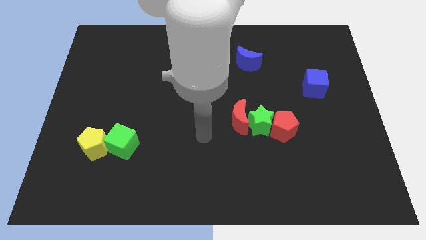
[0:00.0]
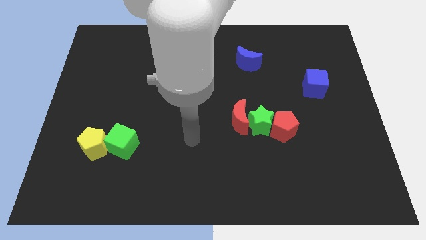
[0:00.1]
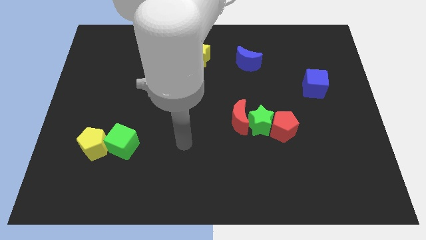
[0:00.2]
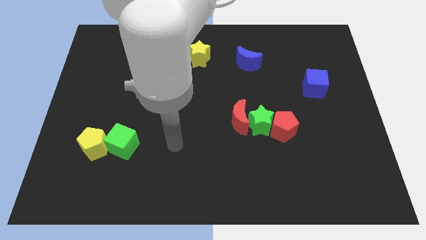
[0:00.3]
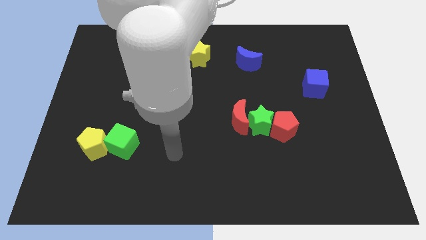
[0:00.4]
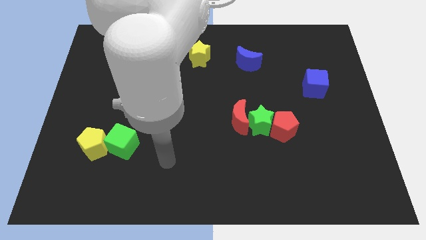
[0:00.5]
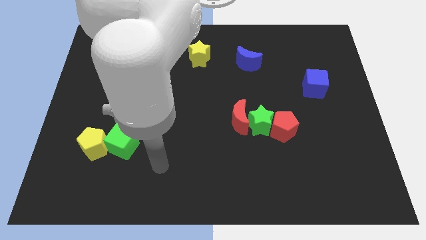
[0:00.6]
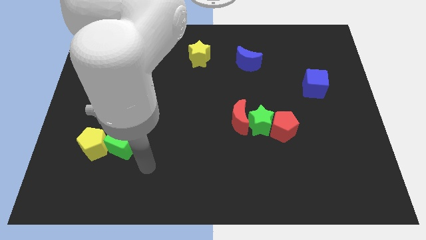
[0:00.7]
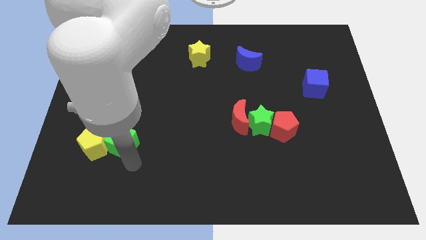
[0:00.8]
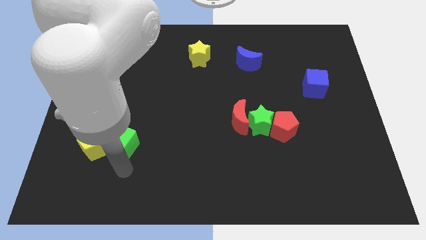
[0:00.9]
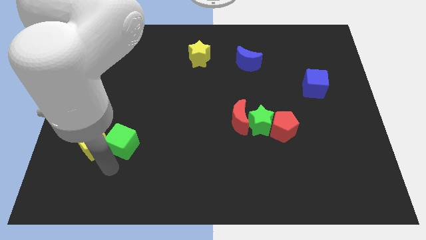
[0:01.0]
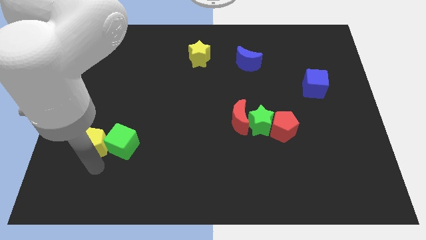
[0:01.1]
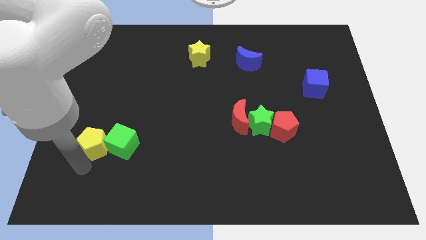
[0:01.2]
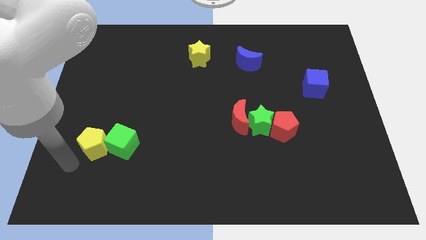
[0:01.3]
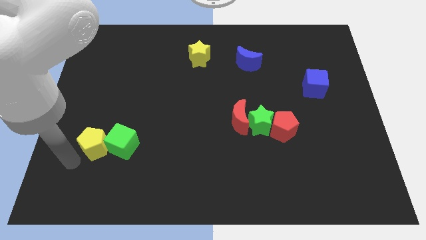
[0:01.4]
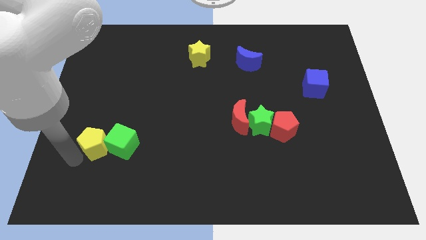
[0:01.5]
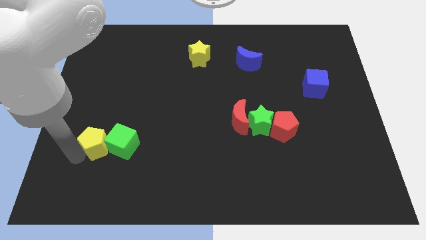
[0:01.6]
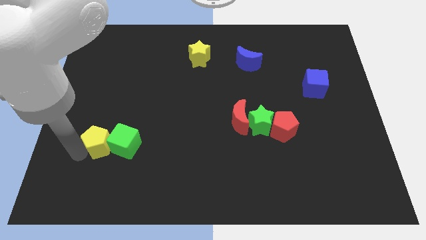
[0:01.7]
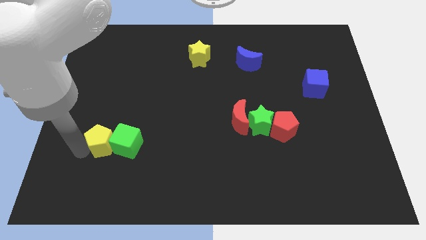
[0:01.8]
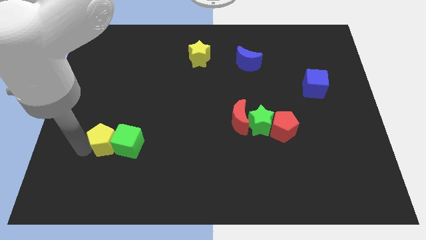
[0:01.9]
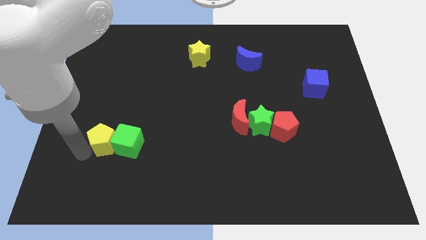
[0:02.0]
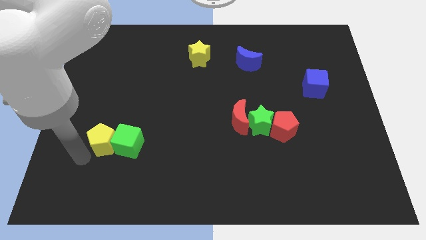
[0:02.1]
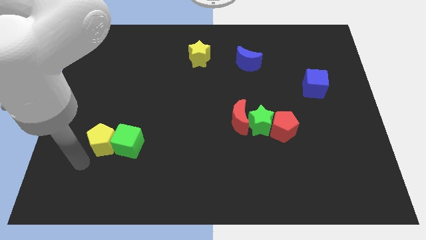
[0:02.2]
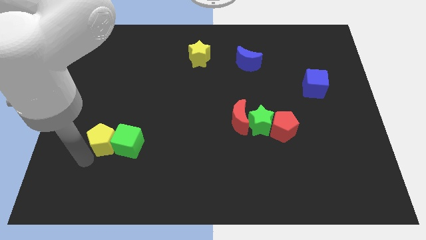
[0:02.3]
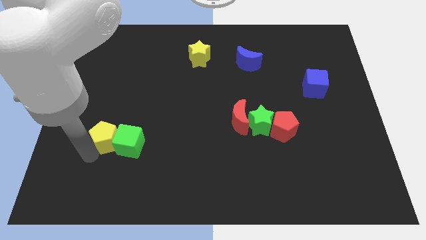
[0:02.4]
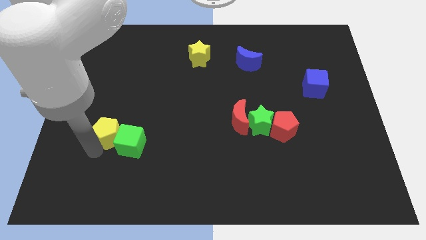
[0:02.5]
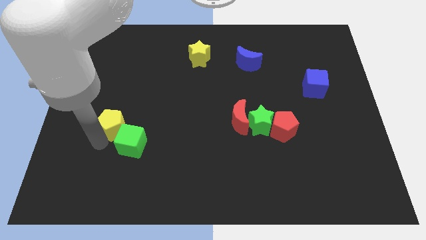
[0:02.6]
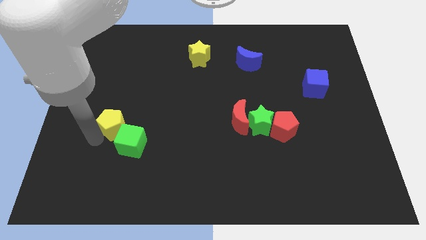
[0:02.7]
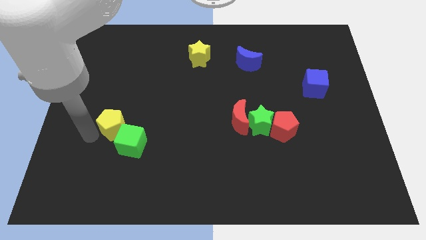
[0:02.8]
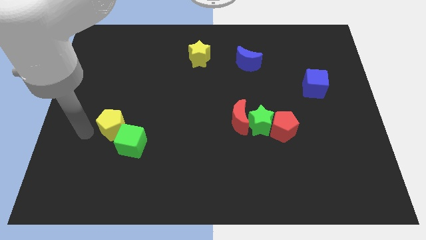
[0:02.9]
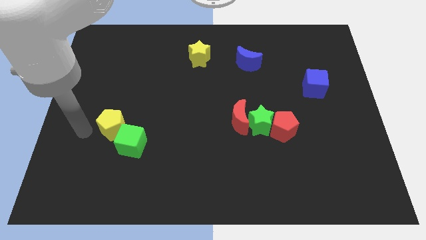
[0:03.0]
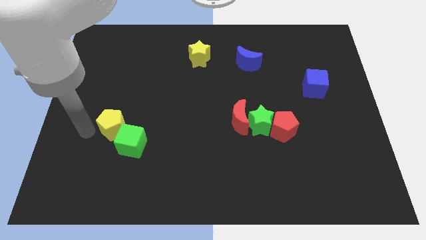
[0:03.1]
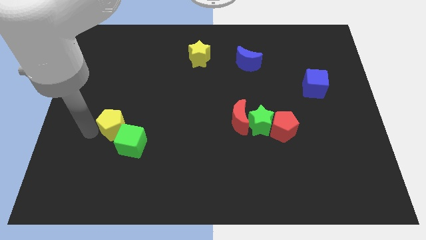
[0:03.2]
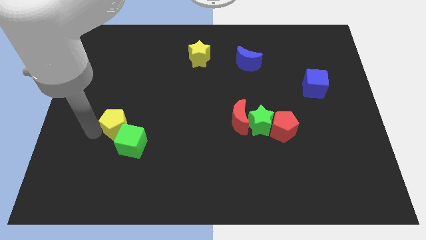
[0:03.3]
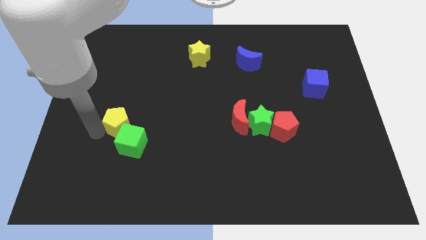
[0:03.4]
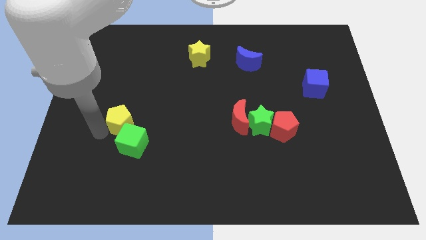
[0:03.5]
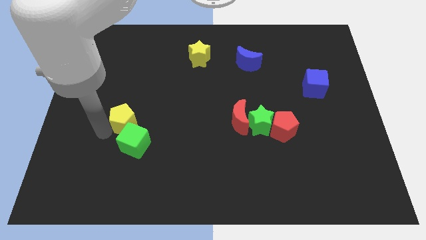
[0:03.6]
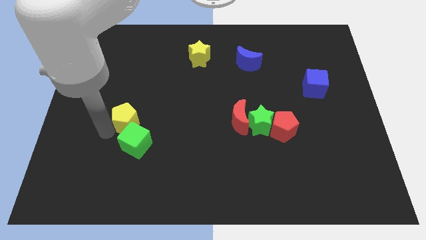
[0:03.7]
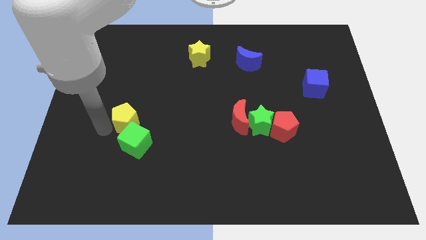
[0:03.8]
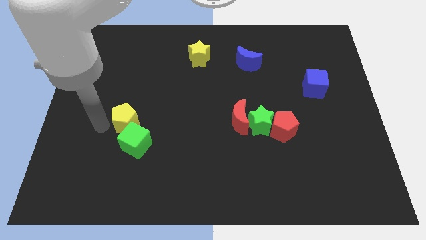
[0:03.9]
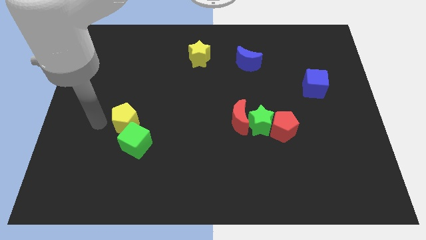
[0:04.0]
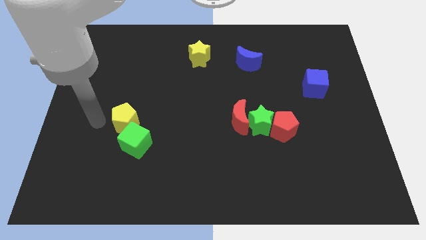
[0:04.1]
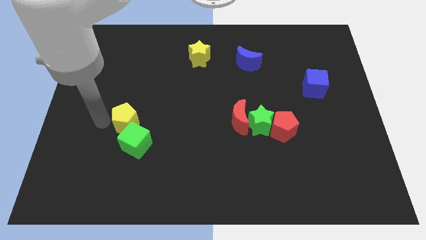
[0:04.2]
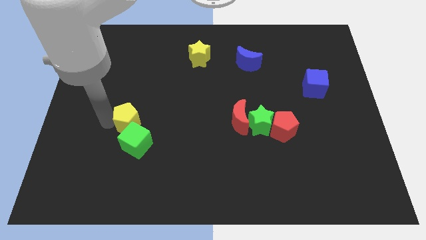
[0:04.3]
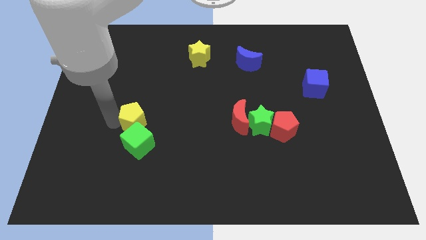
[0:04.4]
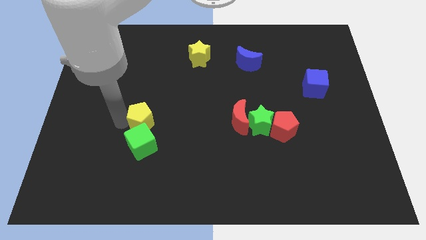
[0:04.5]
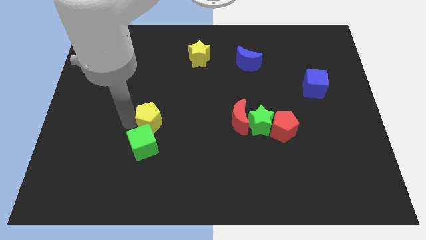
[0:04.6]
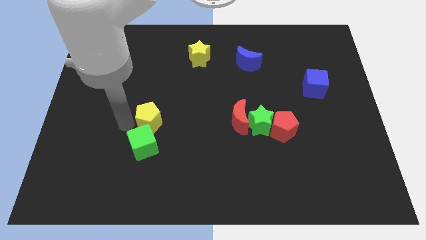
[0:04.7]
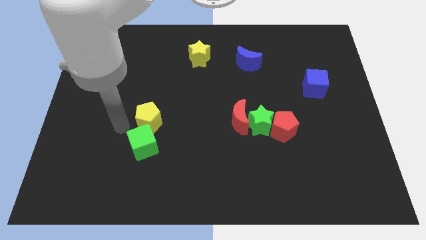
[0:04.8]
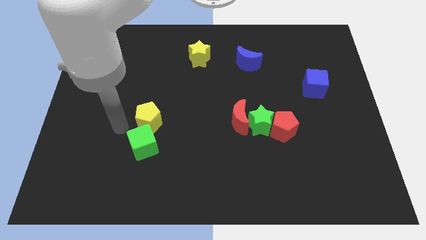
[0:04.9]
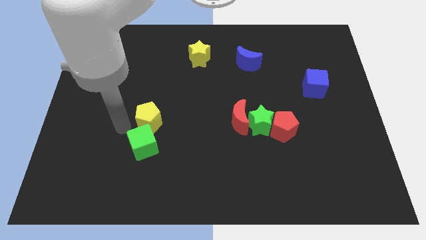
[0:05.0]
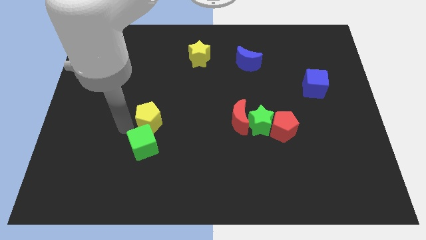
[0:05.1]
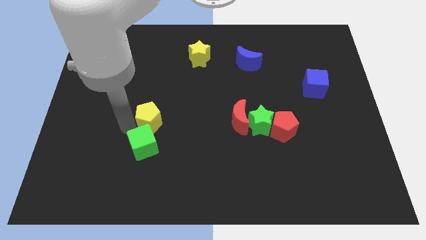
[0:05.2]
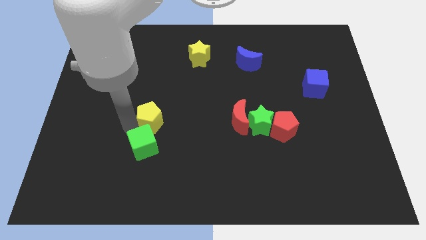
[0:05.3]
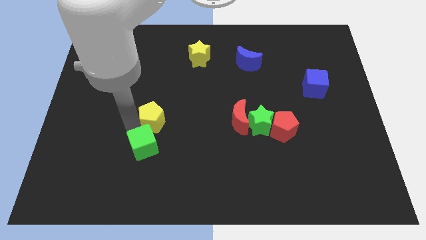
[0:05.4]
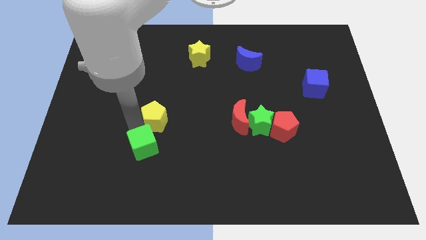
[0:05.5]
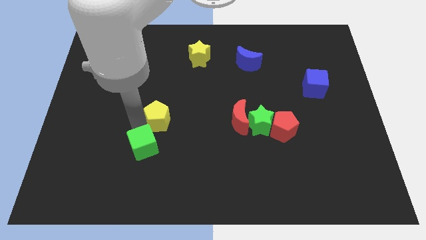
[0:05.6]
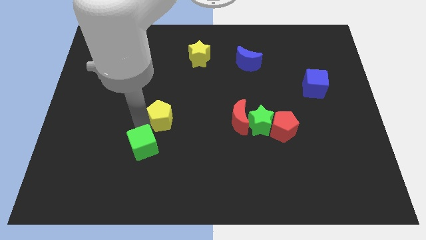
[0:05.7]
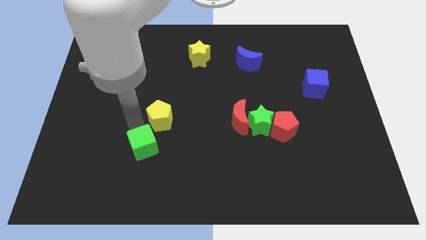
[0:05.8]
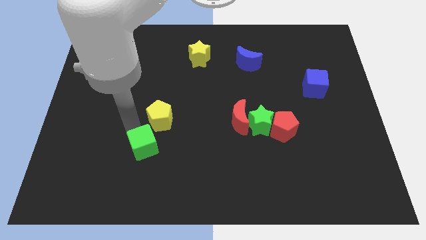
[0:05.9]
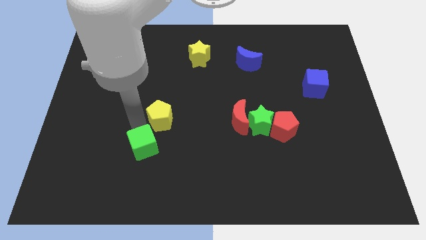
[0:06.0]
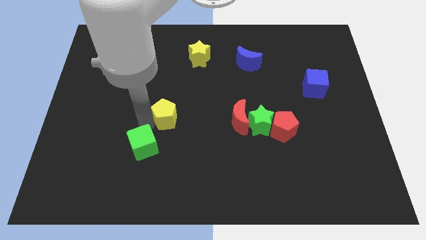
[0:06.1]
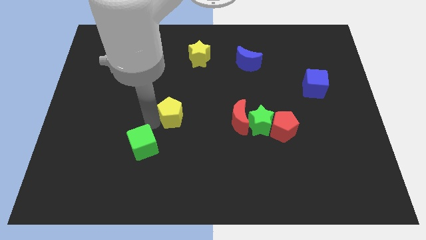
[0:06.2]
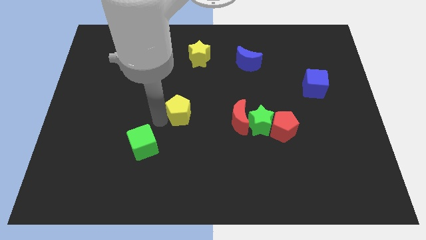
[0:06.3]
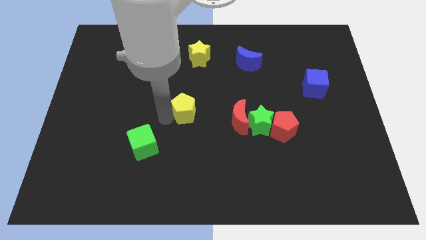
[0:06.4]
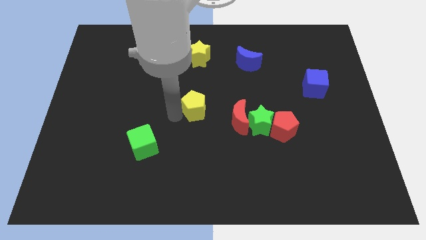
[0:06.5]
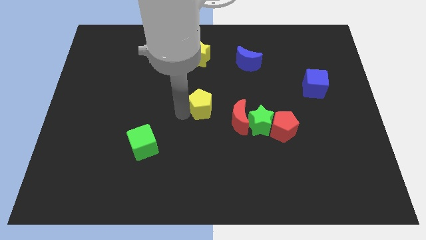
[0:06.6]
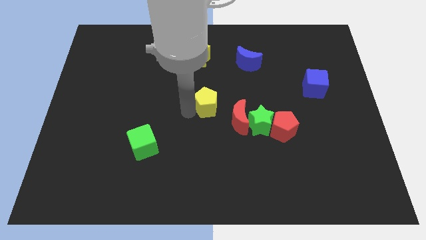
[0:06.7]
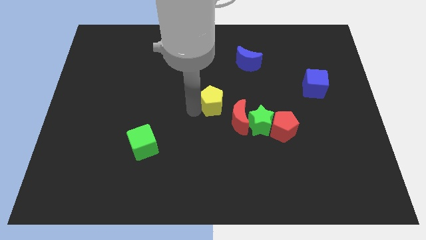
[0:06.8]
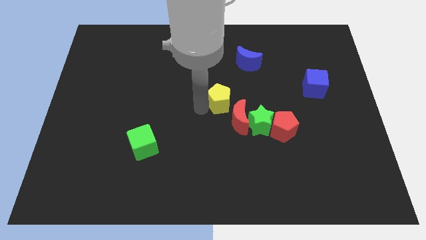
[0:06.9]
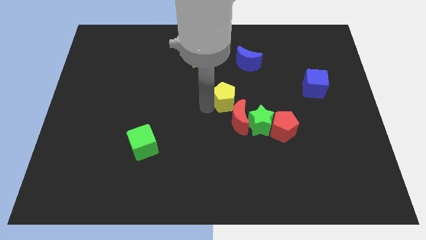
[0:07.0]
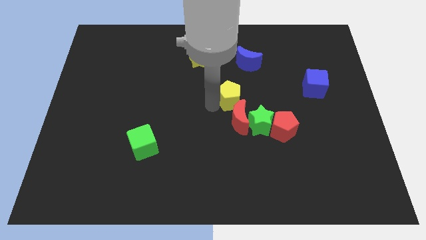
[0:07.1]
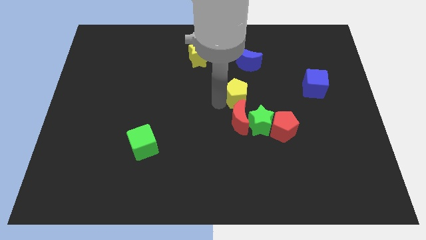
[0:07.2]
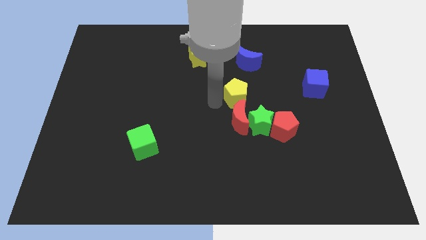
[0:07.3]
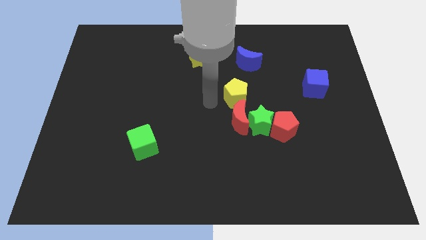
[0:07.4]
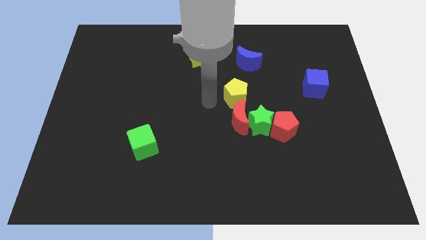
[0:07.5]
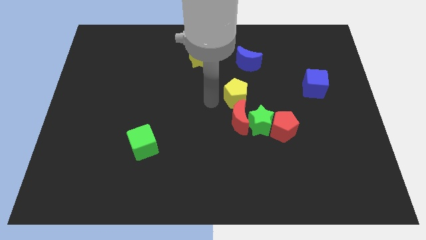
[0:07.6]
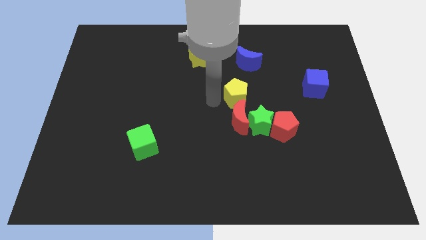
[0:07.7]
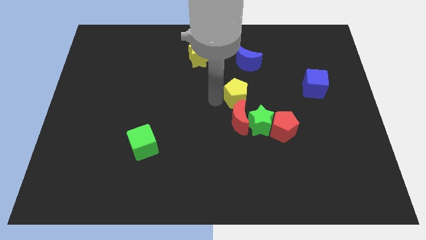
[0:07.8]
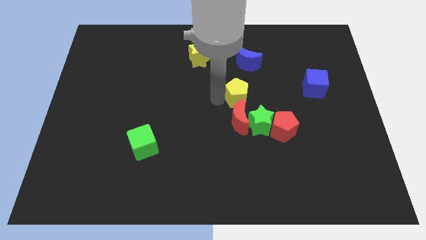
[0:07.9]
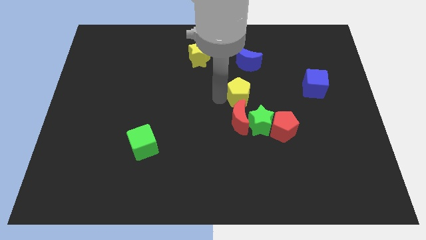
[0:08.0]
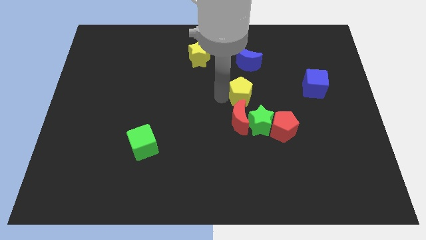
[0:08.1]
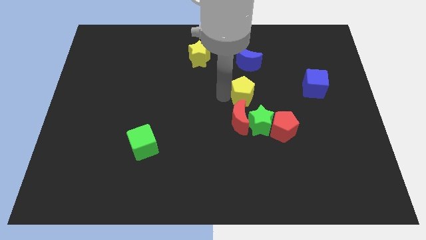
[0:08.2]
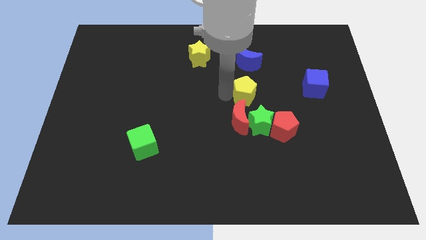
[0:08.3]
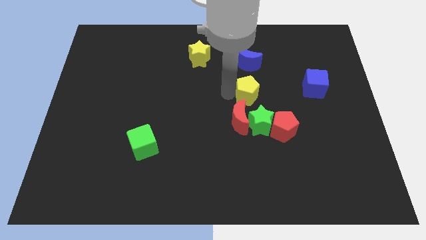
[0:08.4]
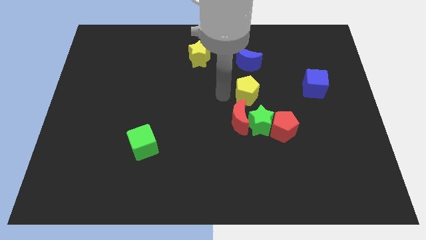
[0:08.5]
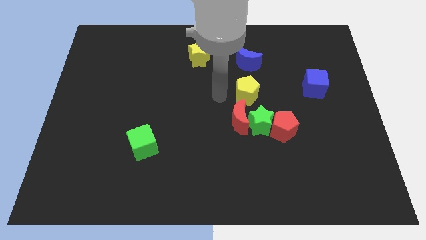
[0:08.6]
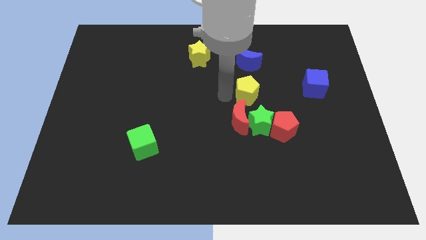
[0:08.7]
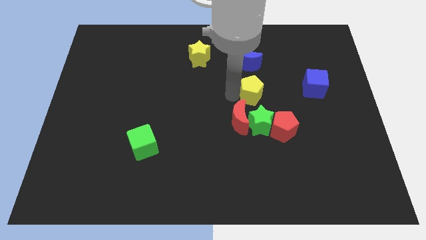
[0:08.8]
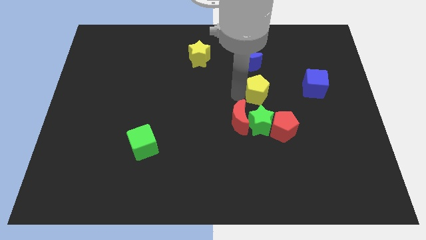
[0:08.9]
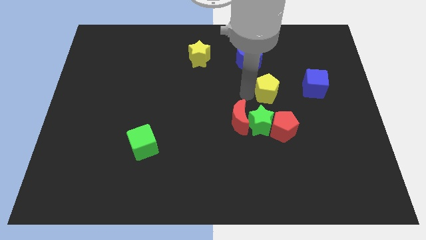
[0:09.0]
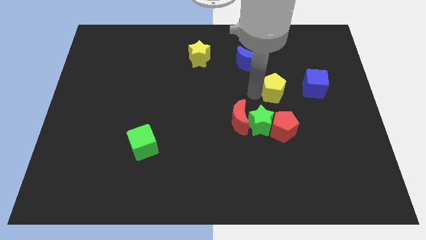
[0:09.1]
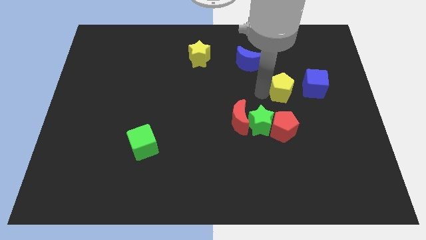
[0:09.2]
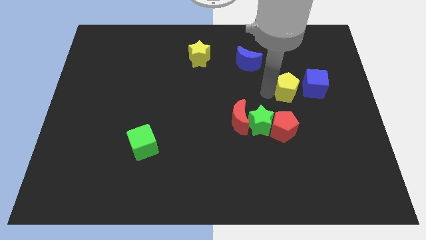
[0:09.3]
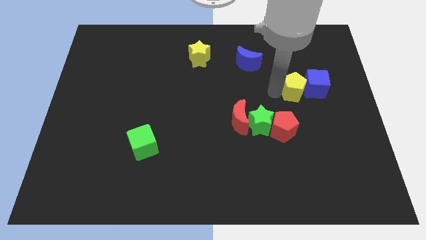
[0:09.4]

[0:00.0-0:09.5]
slide the yellow pentagon towards the blue cube
